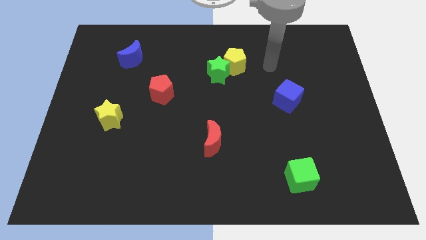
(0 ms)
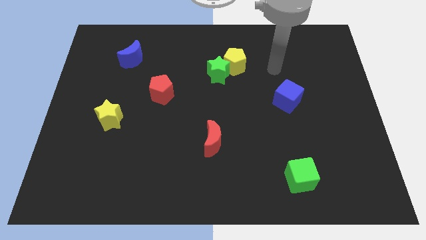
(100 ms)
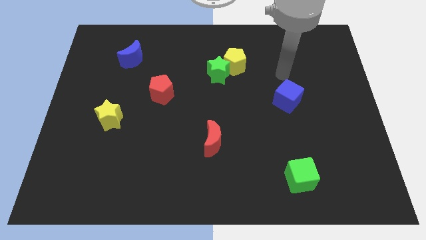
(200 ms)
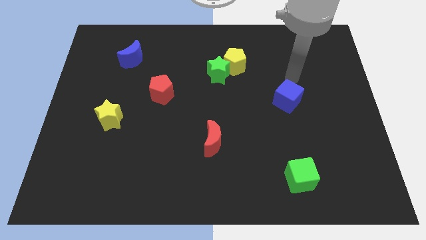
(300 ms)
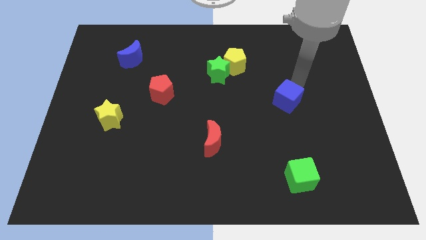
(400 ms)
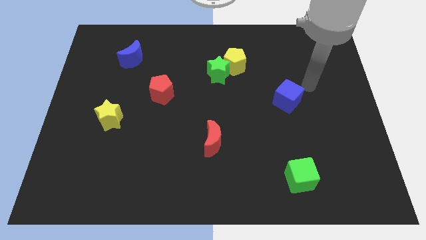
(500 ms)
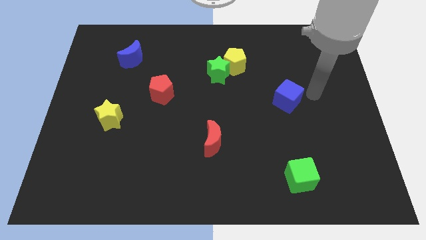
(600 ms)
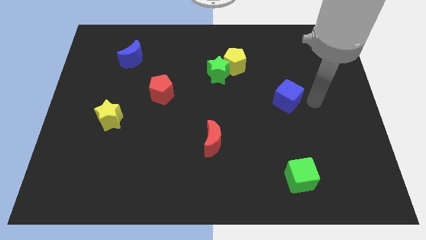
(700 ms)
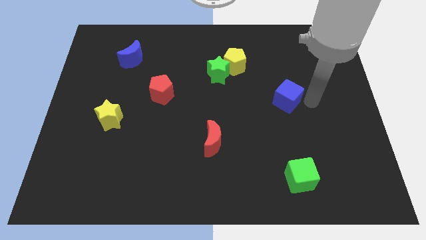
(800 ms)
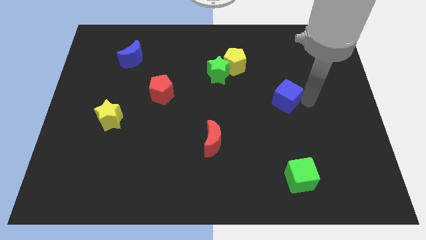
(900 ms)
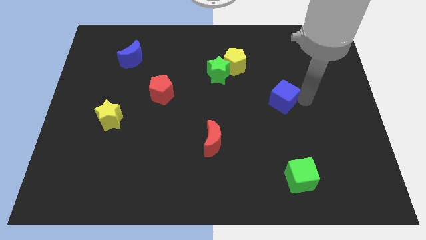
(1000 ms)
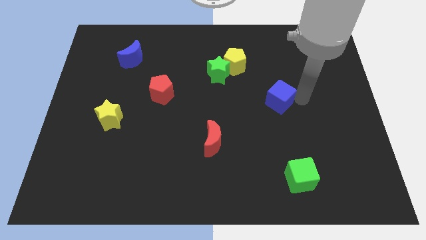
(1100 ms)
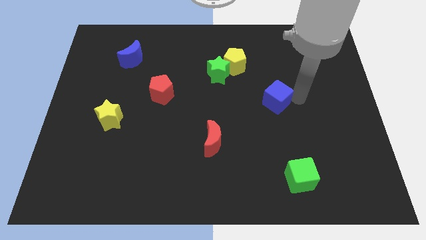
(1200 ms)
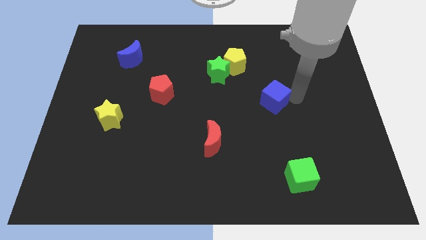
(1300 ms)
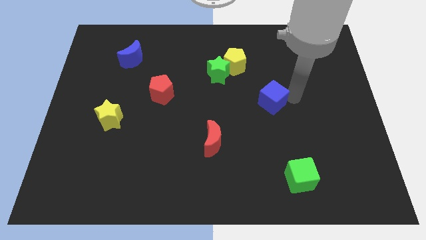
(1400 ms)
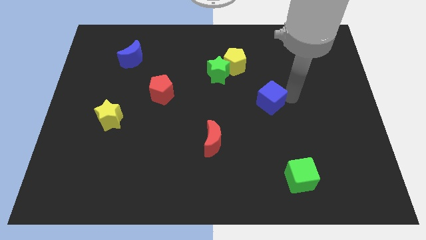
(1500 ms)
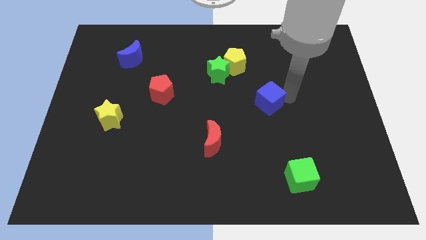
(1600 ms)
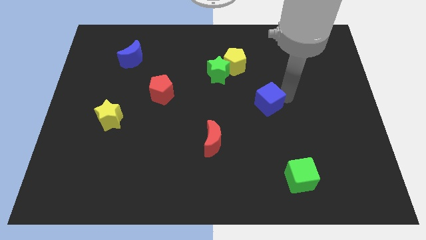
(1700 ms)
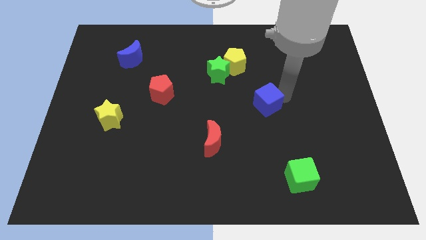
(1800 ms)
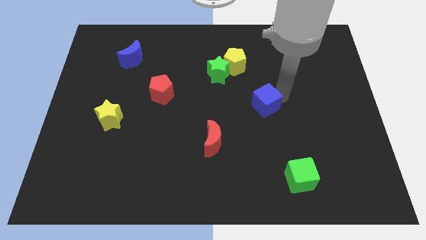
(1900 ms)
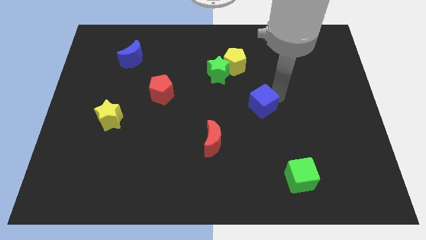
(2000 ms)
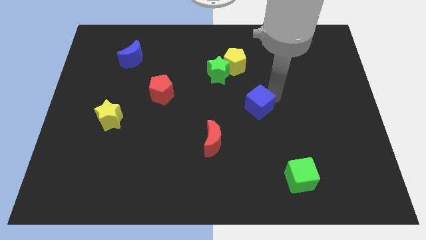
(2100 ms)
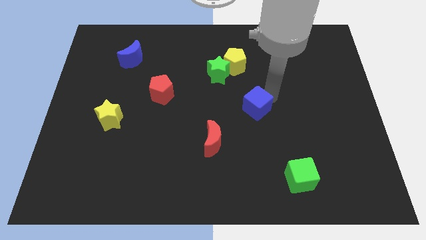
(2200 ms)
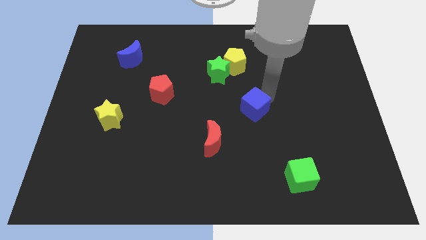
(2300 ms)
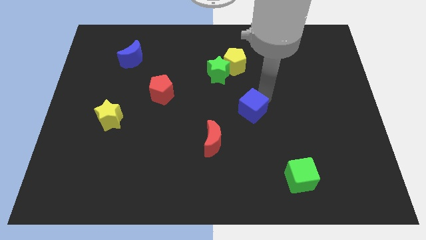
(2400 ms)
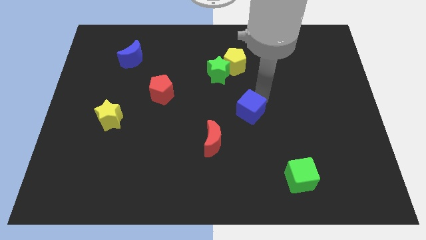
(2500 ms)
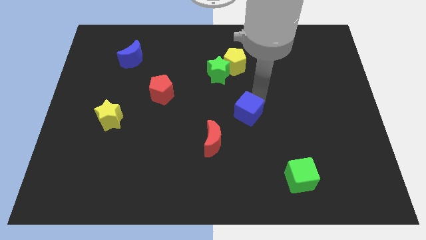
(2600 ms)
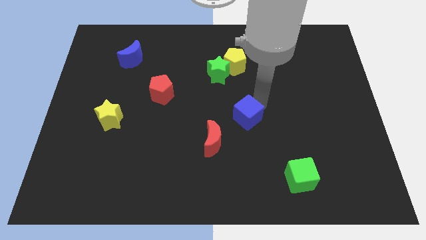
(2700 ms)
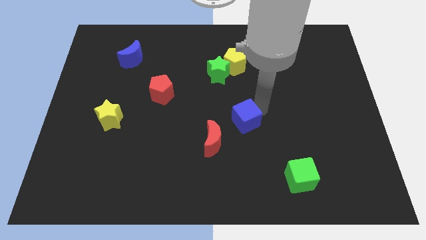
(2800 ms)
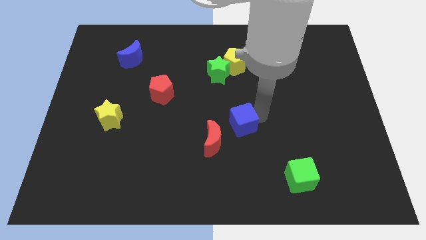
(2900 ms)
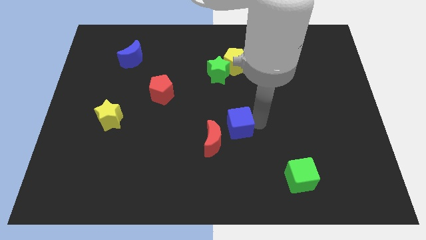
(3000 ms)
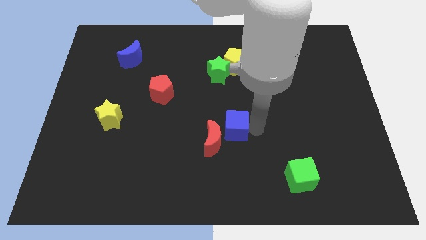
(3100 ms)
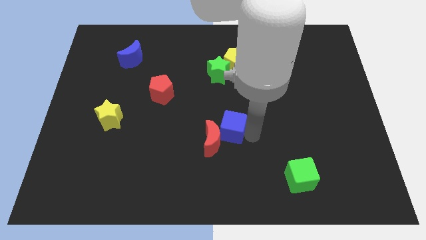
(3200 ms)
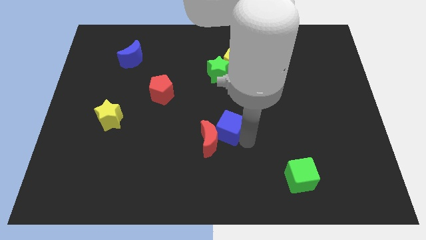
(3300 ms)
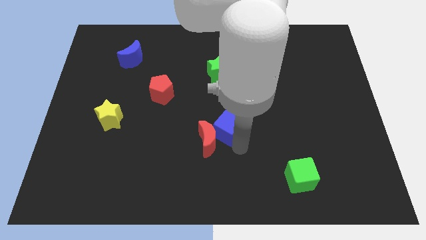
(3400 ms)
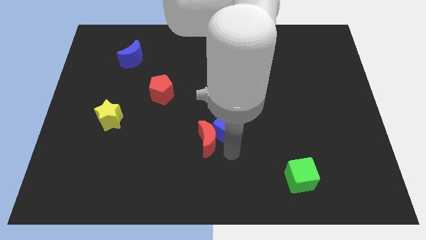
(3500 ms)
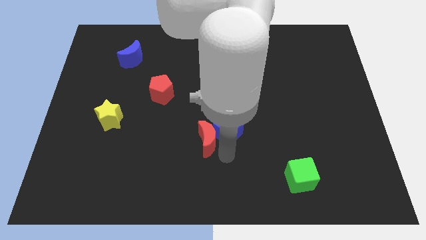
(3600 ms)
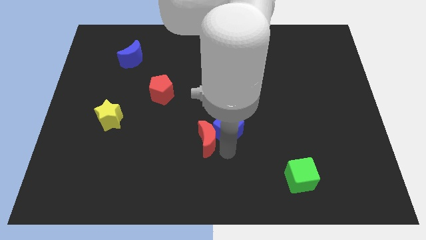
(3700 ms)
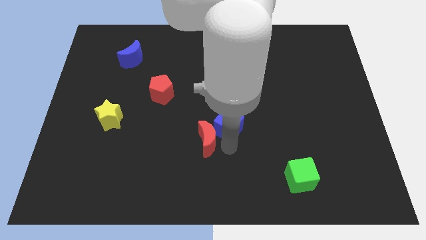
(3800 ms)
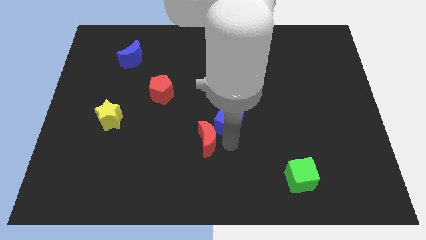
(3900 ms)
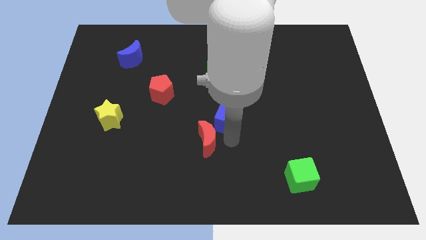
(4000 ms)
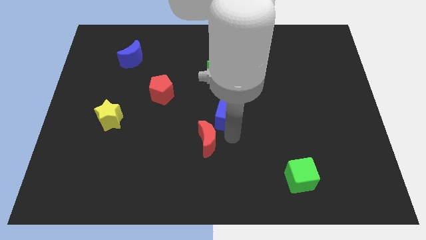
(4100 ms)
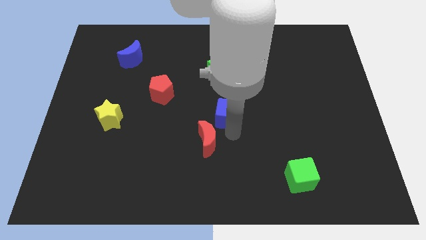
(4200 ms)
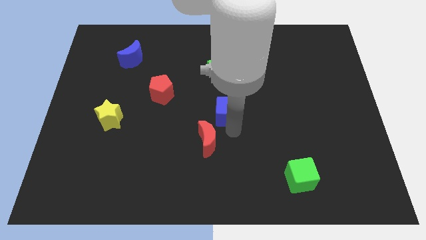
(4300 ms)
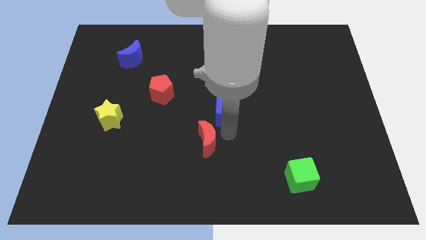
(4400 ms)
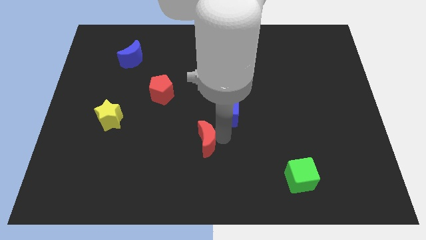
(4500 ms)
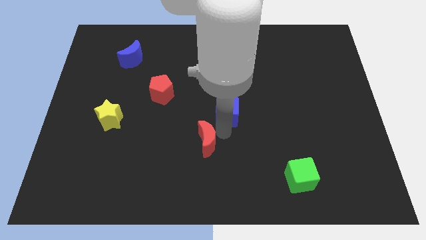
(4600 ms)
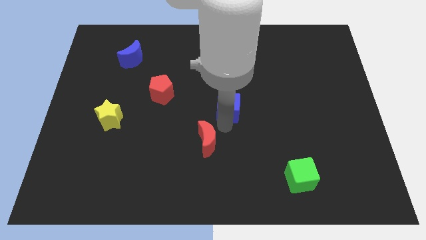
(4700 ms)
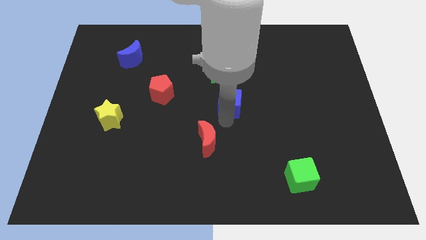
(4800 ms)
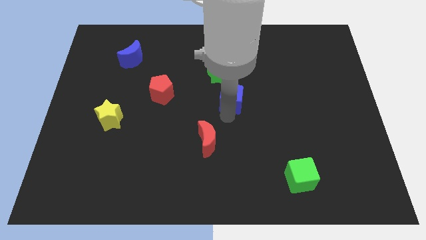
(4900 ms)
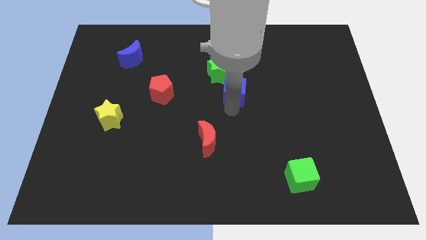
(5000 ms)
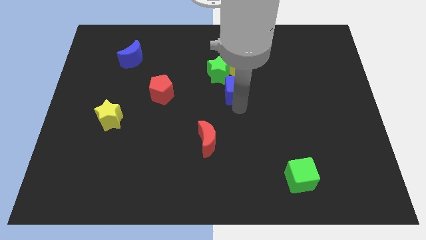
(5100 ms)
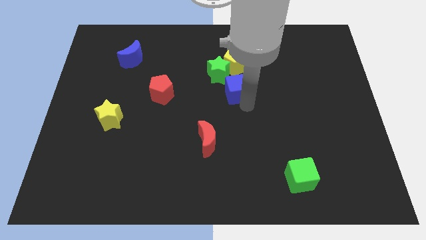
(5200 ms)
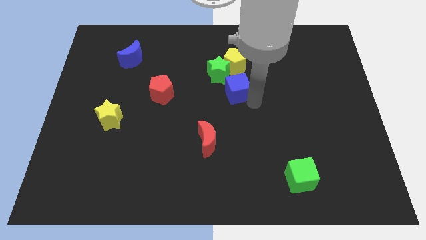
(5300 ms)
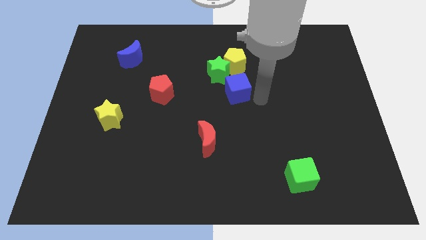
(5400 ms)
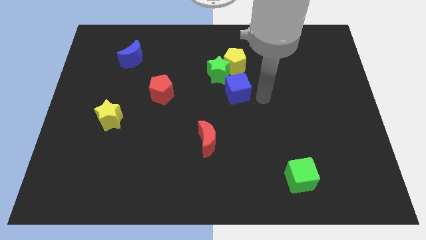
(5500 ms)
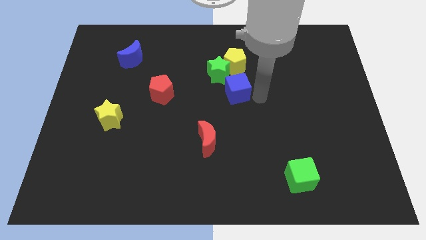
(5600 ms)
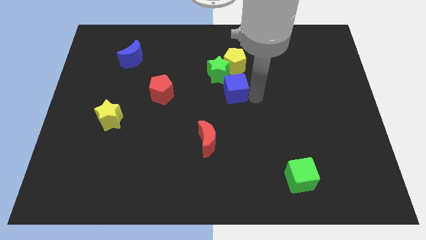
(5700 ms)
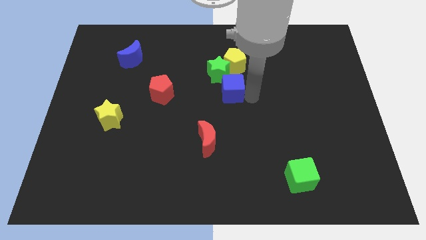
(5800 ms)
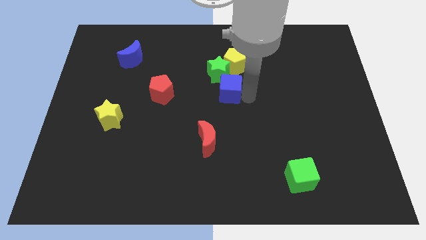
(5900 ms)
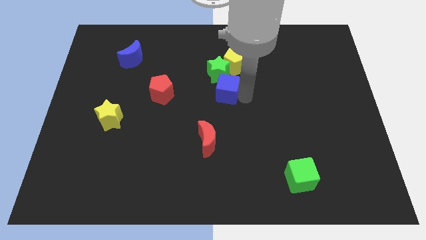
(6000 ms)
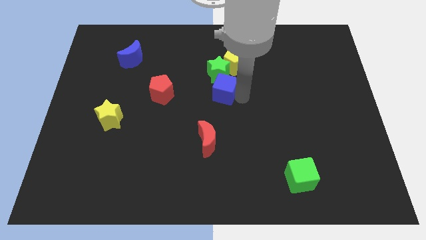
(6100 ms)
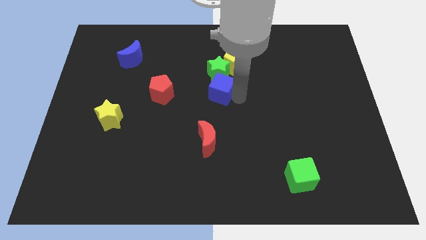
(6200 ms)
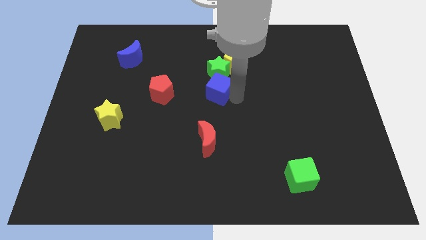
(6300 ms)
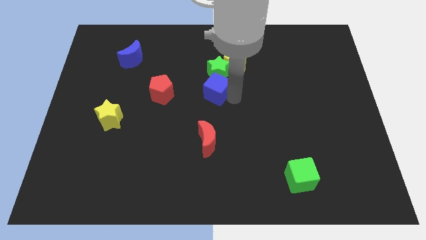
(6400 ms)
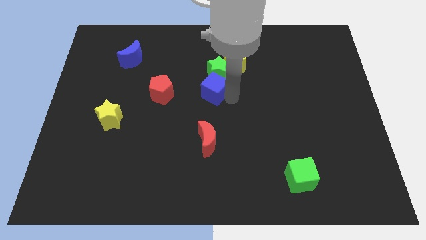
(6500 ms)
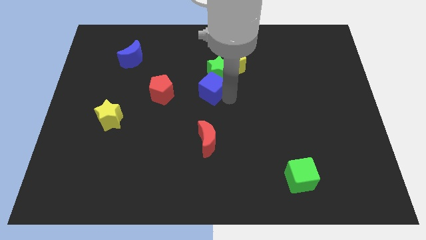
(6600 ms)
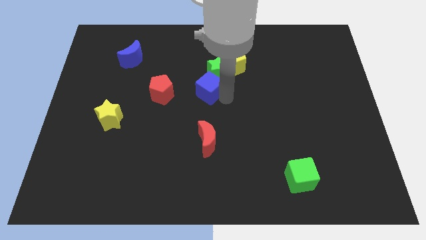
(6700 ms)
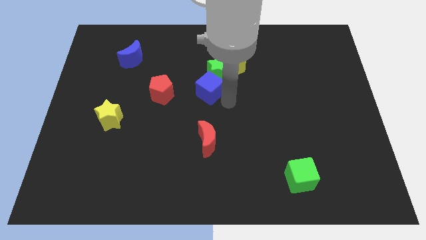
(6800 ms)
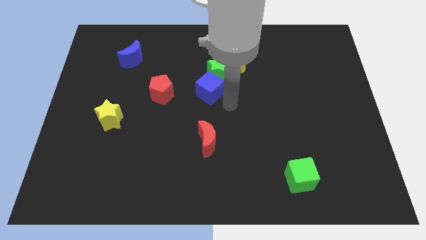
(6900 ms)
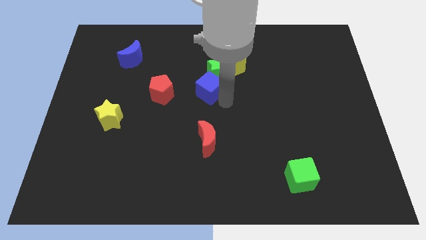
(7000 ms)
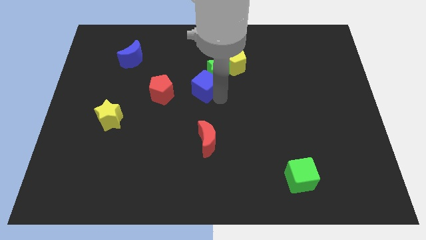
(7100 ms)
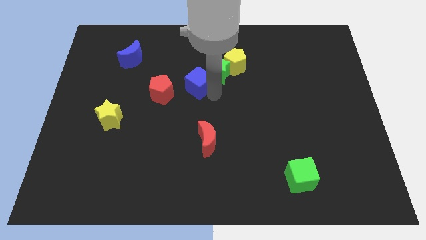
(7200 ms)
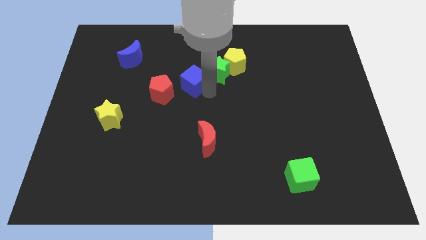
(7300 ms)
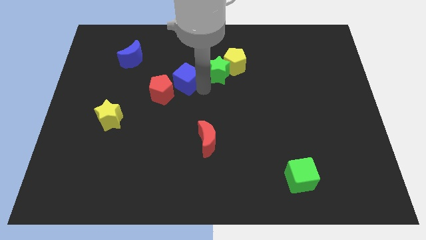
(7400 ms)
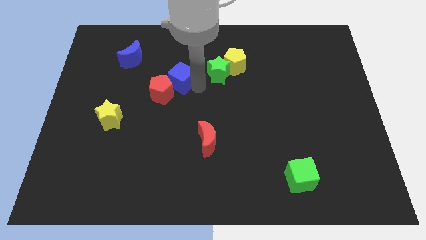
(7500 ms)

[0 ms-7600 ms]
push the blue cube to the top side of the red pentagon
